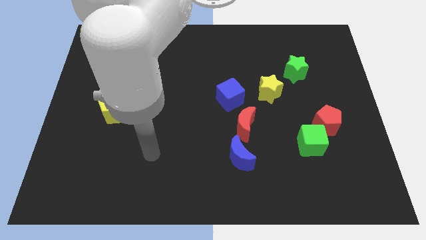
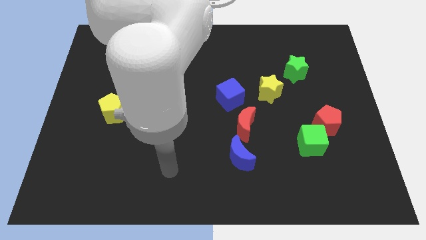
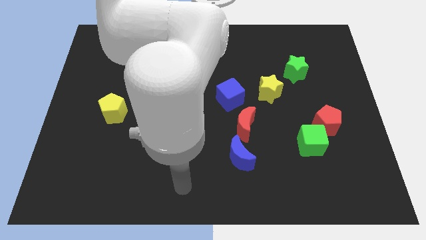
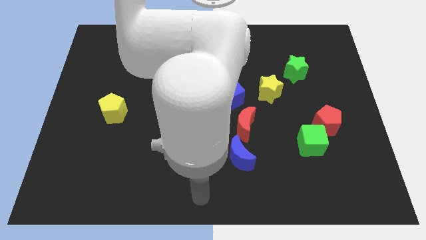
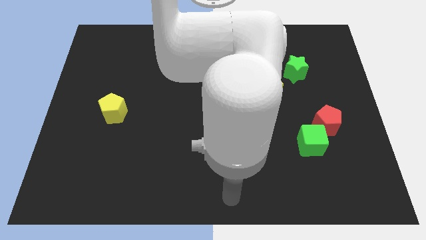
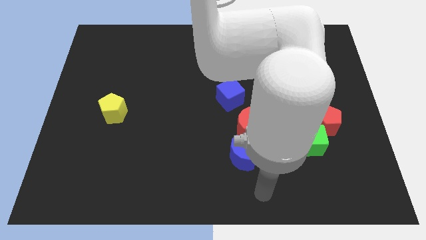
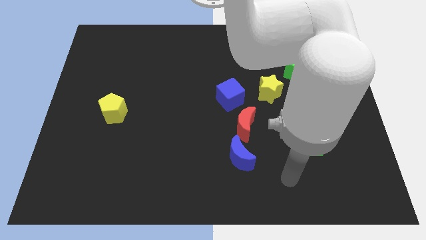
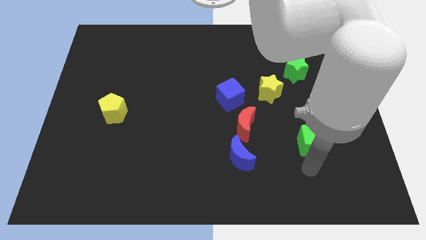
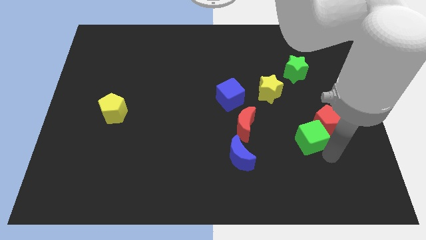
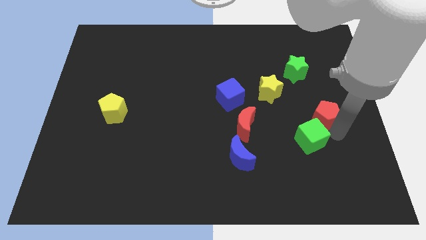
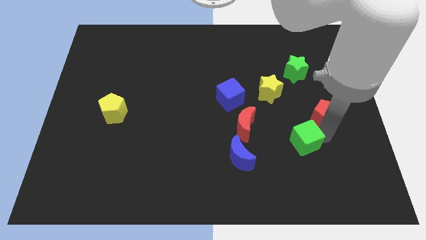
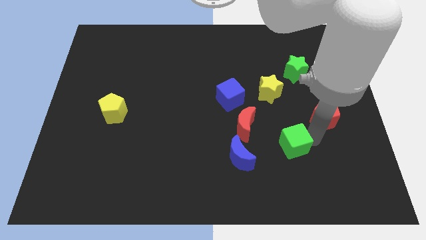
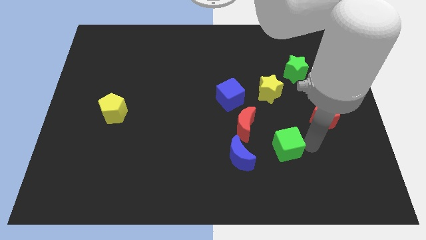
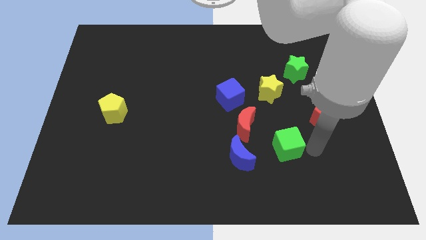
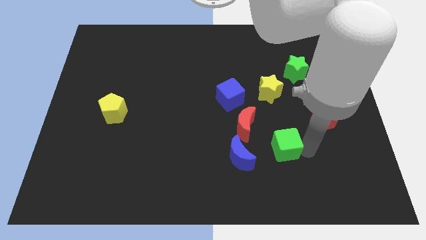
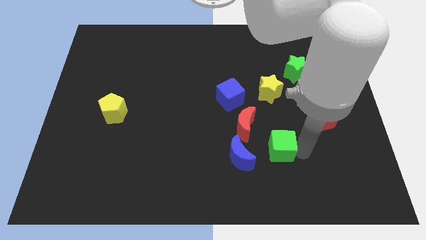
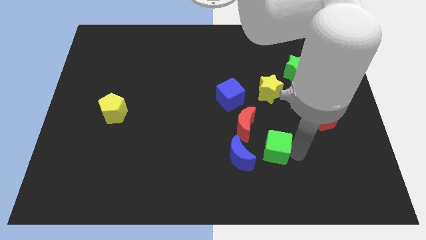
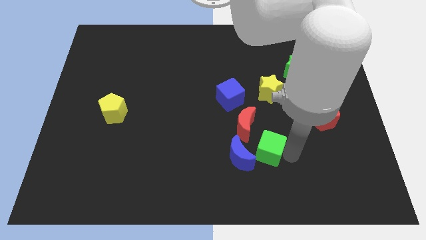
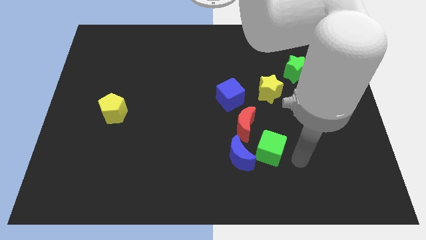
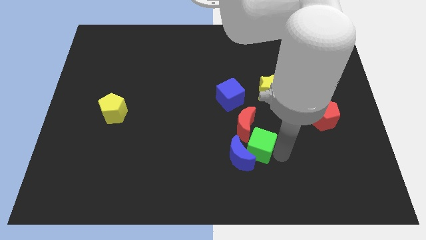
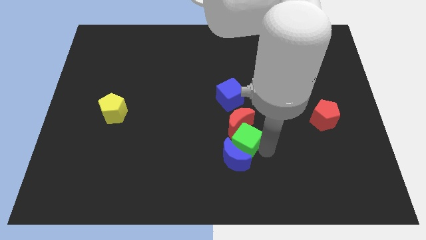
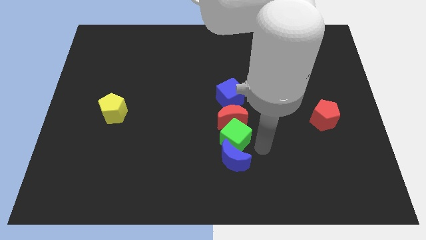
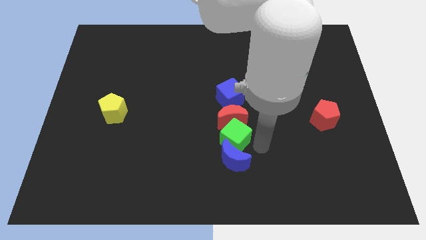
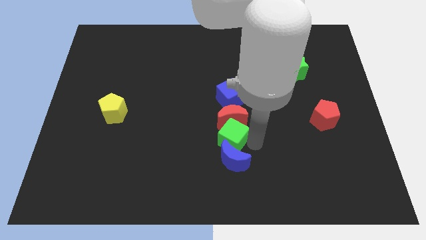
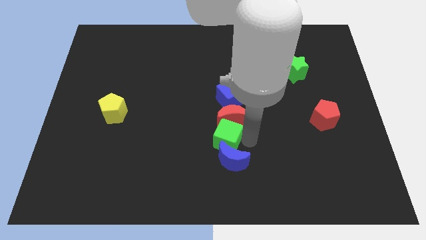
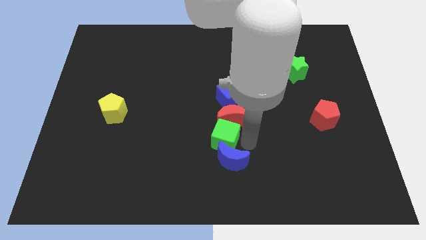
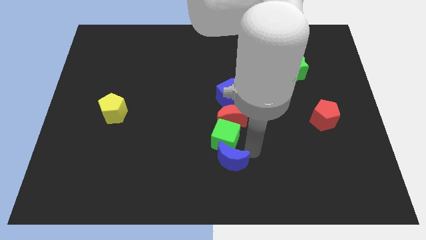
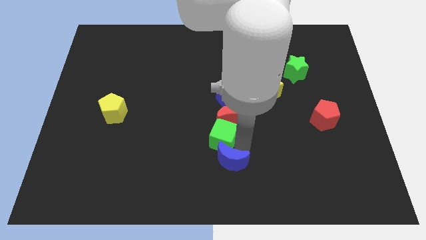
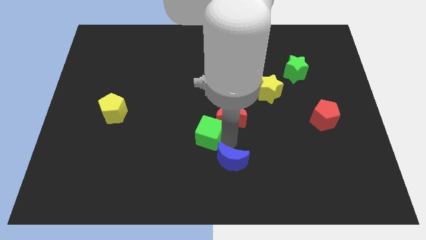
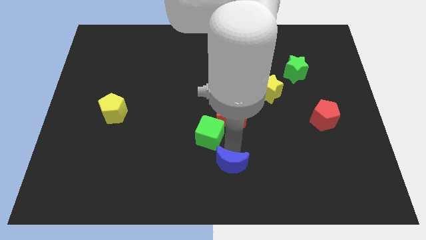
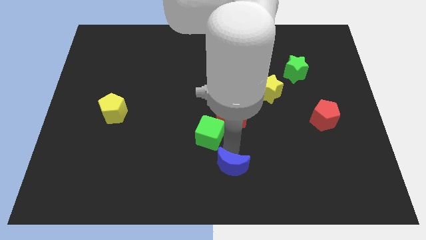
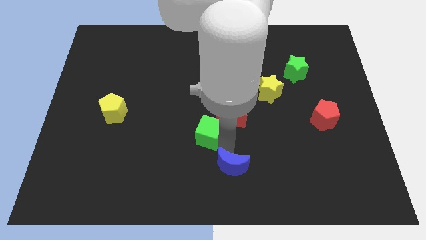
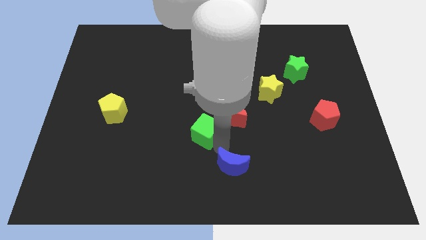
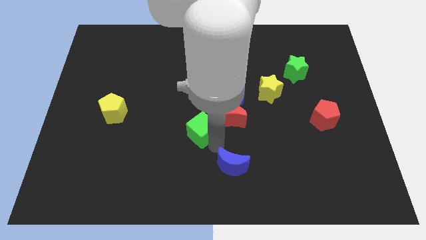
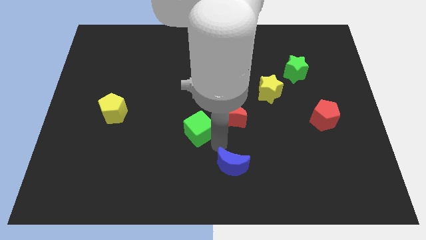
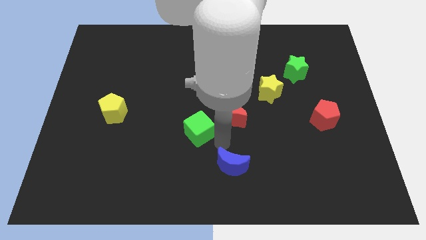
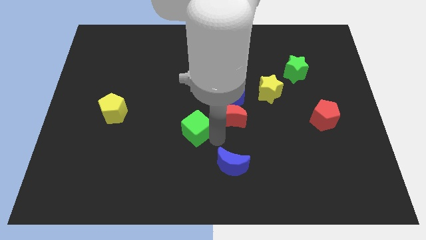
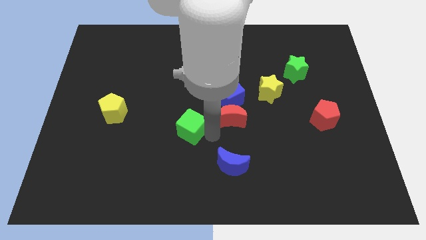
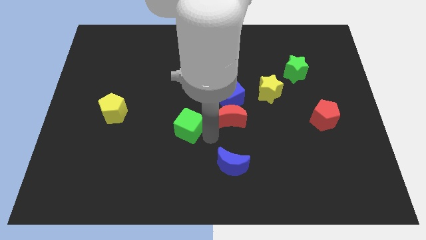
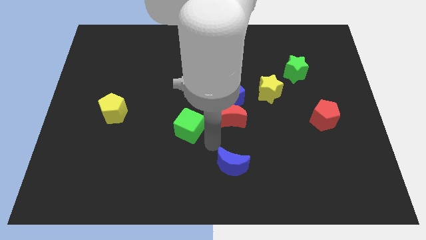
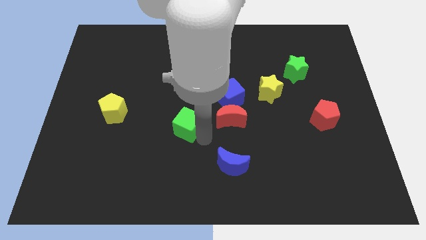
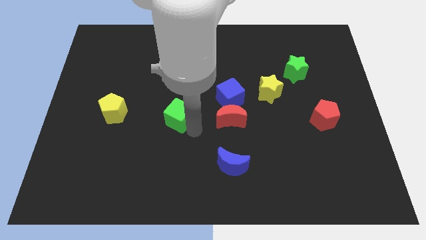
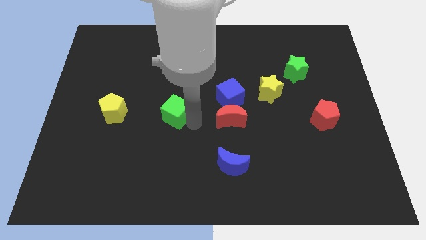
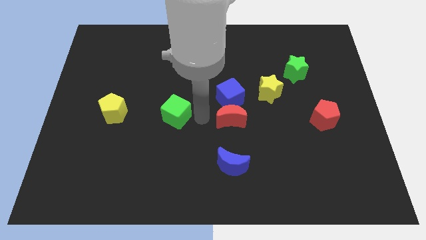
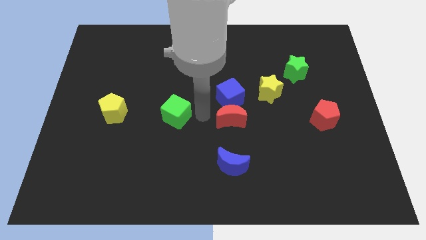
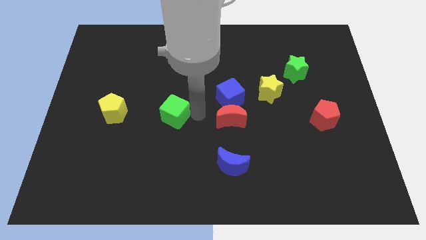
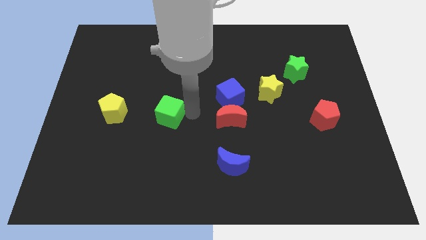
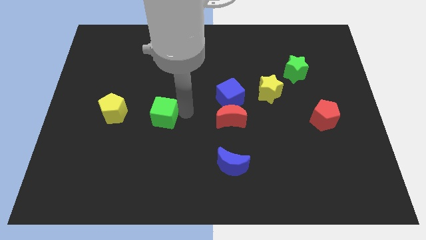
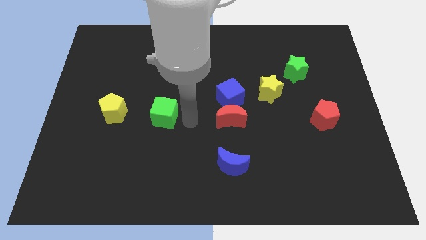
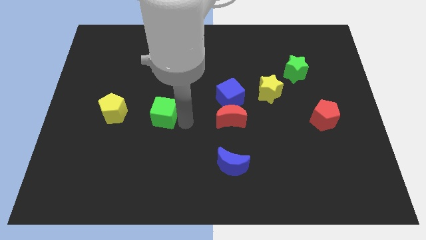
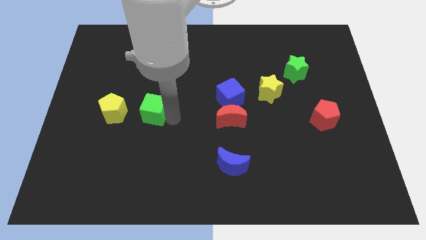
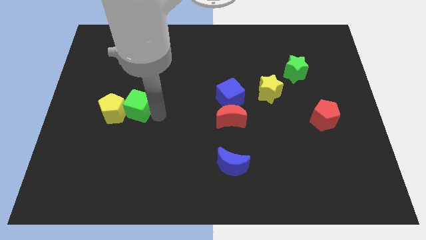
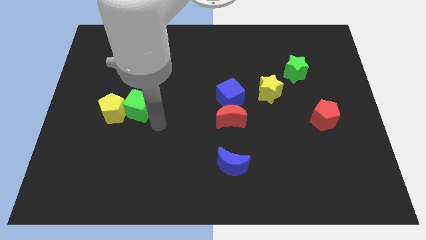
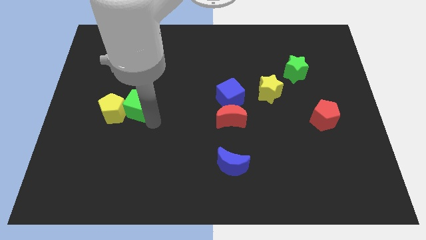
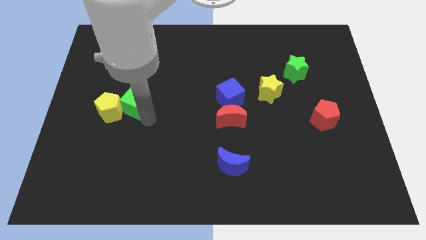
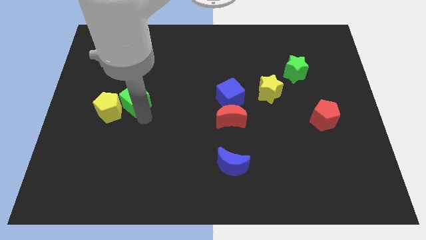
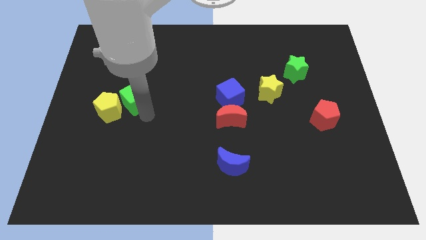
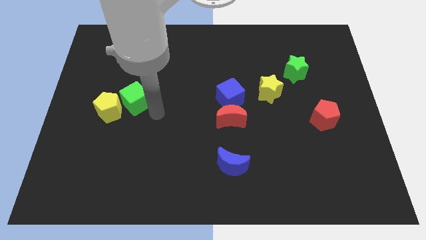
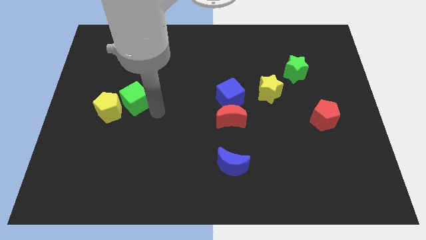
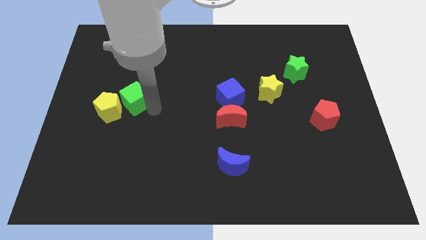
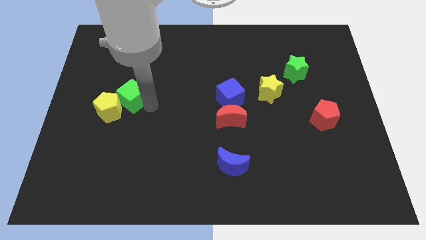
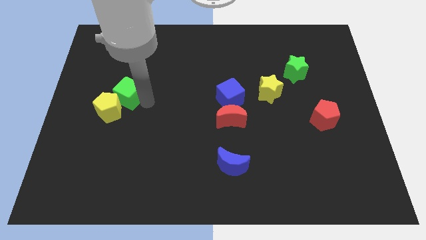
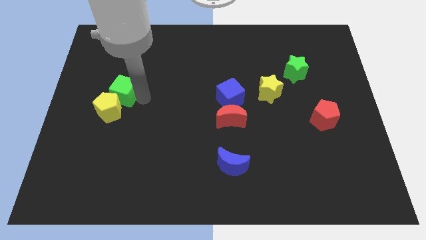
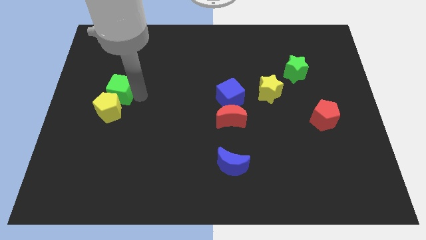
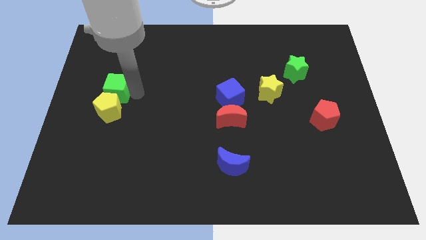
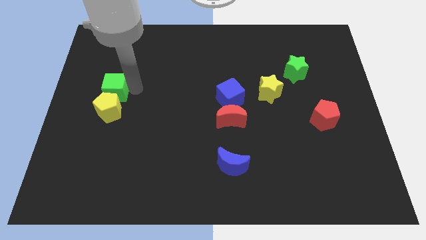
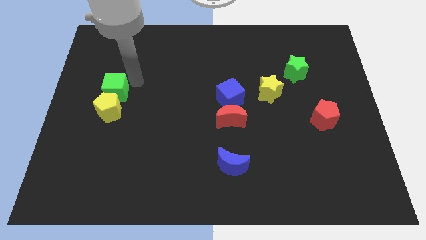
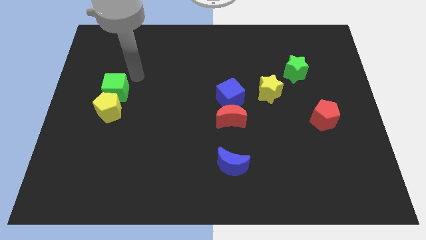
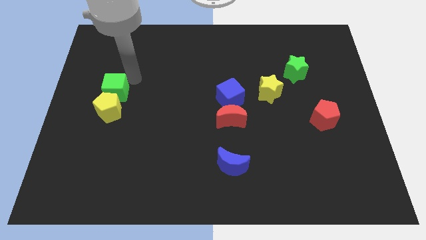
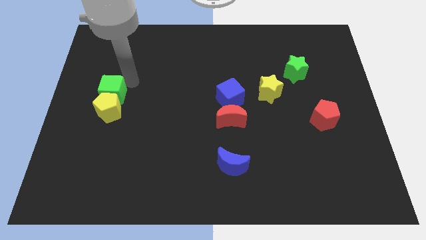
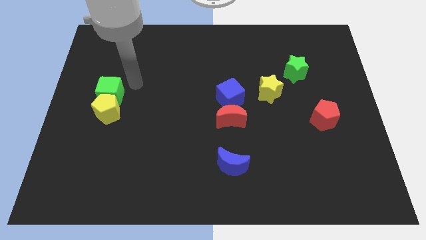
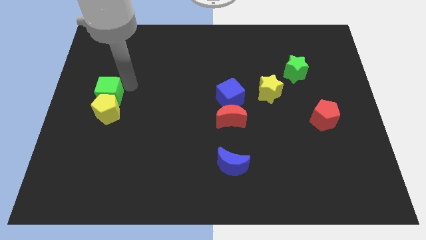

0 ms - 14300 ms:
move the green cube to the center left
